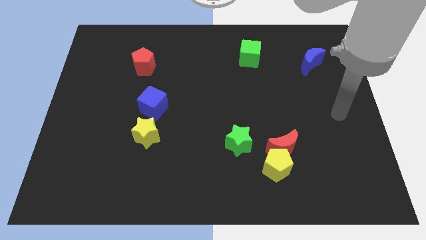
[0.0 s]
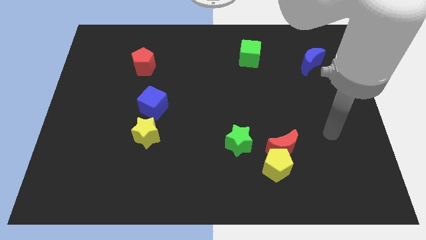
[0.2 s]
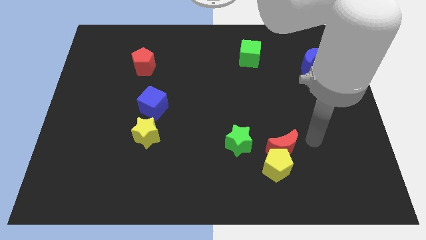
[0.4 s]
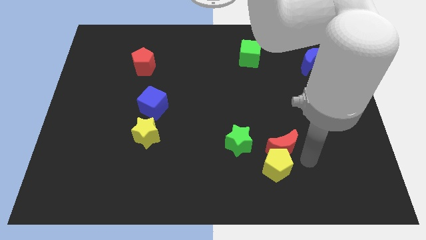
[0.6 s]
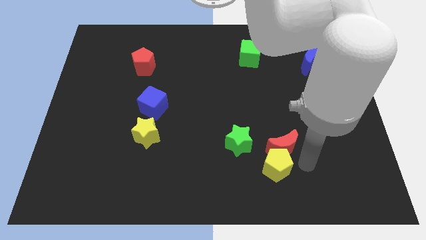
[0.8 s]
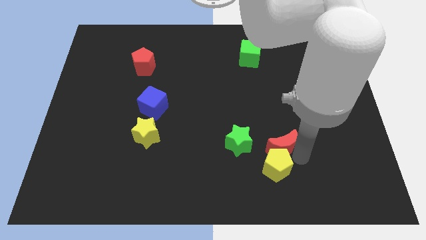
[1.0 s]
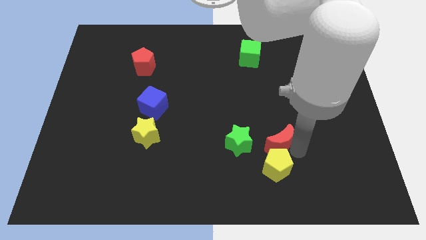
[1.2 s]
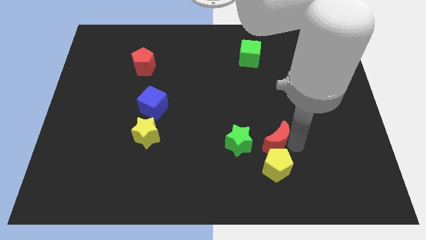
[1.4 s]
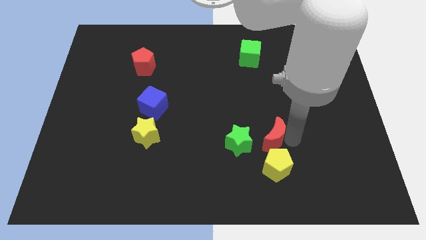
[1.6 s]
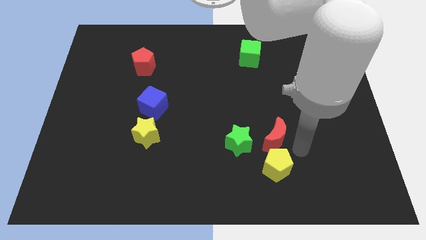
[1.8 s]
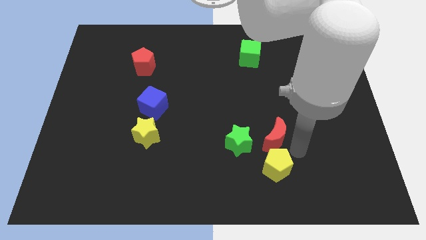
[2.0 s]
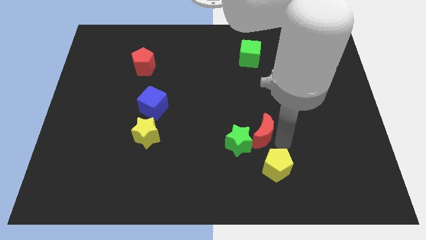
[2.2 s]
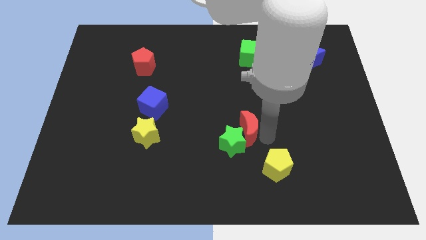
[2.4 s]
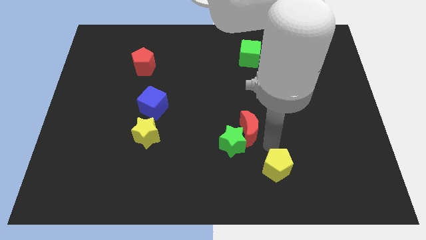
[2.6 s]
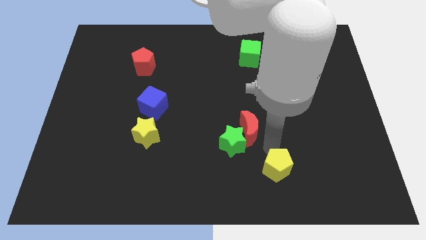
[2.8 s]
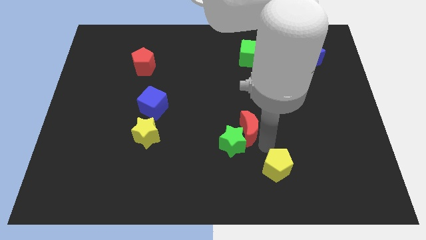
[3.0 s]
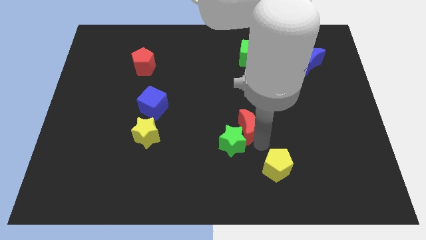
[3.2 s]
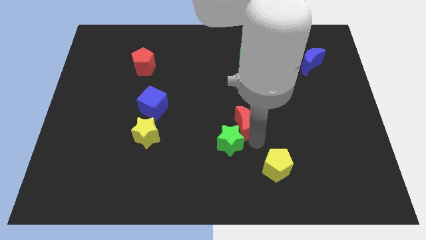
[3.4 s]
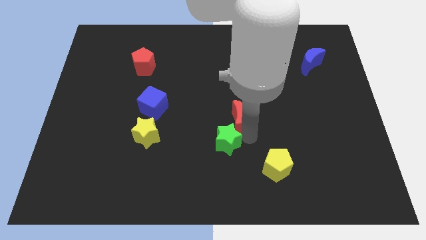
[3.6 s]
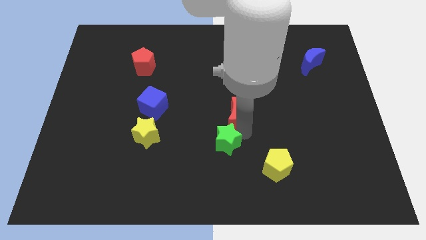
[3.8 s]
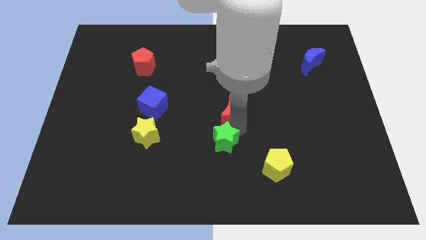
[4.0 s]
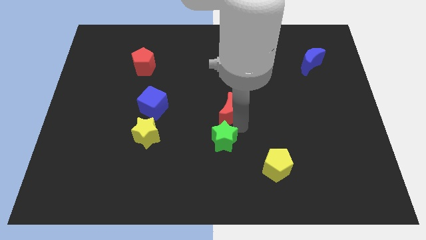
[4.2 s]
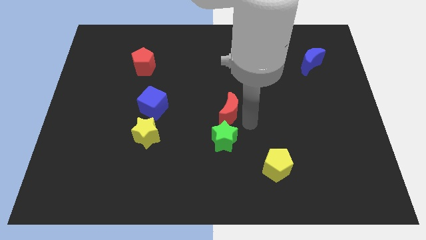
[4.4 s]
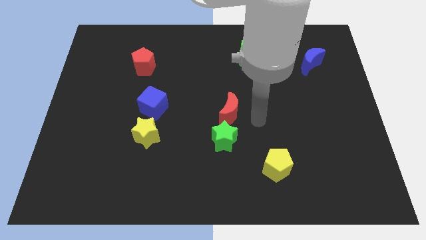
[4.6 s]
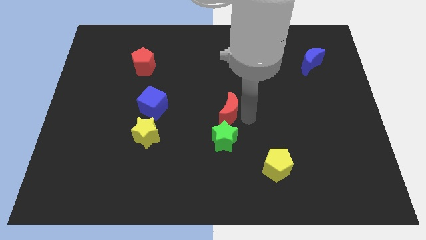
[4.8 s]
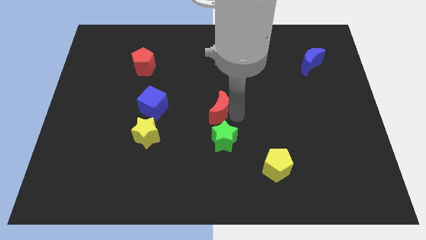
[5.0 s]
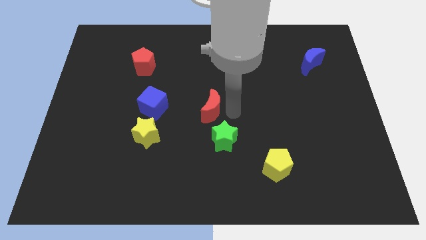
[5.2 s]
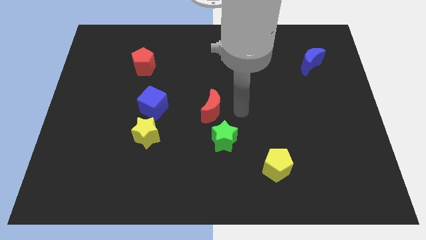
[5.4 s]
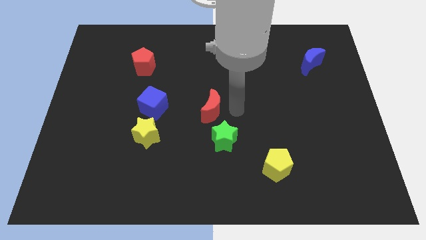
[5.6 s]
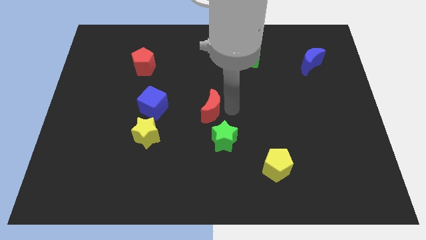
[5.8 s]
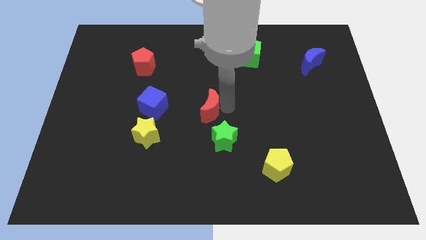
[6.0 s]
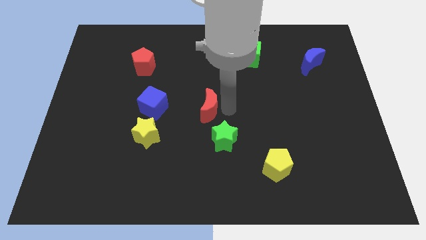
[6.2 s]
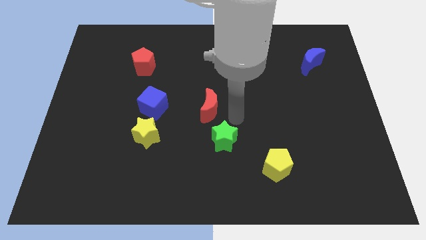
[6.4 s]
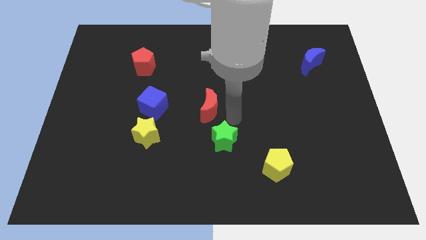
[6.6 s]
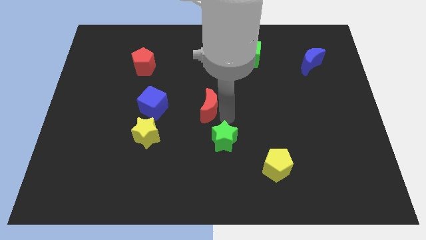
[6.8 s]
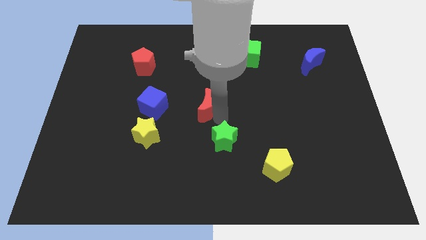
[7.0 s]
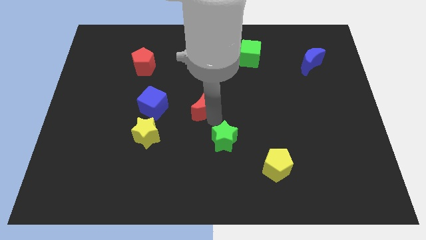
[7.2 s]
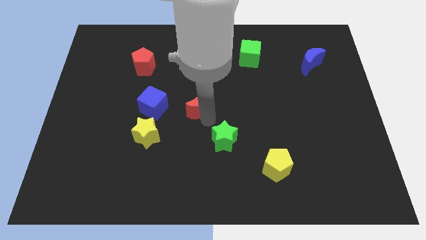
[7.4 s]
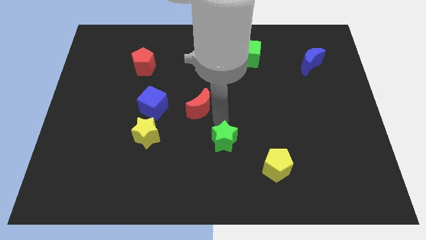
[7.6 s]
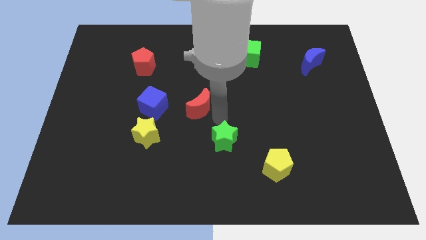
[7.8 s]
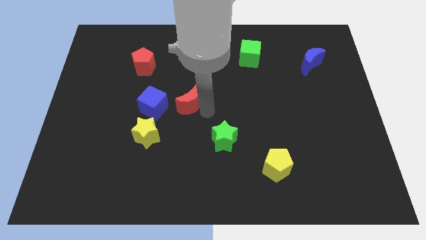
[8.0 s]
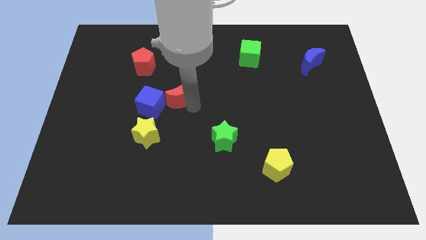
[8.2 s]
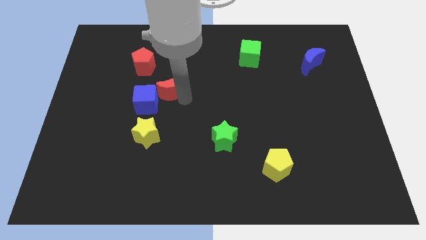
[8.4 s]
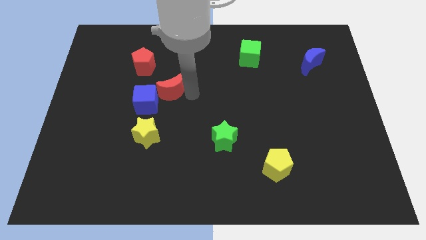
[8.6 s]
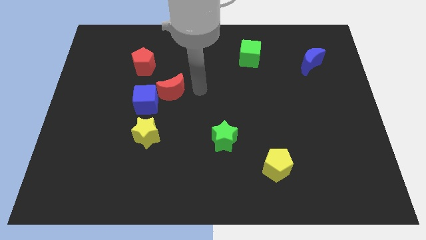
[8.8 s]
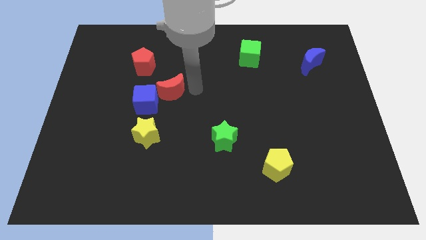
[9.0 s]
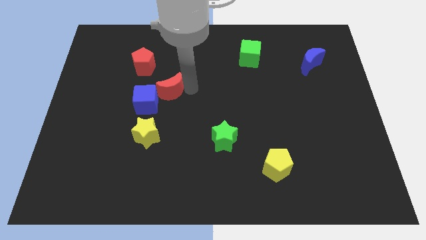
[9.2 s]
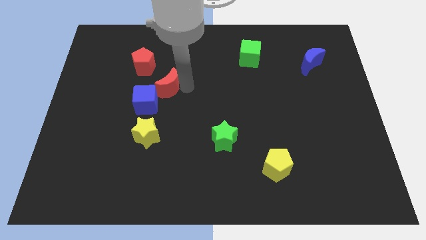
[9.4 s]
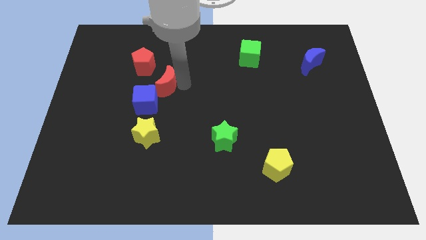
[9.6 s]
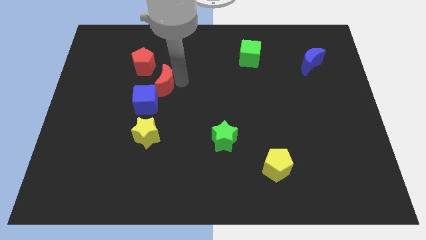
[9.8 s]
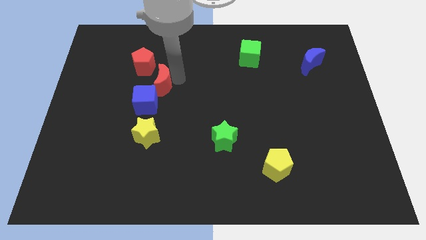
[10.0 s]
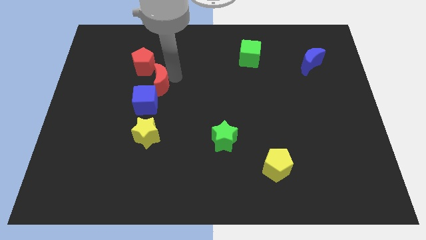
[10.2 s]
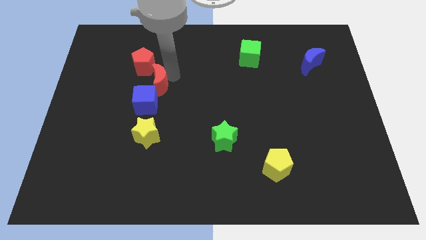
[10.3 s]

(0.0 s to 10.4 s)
push the red moon to the bottom of the red pentagon

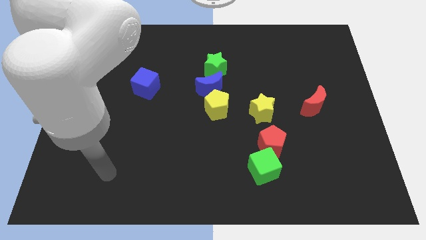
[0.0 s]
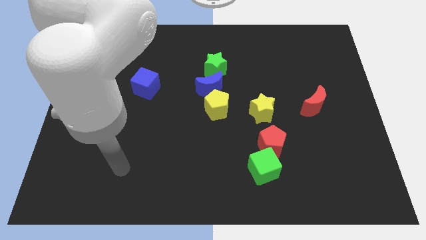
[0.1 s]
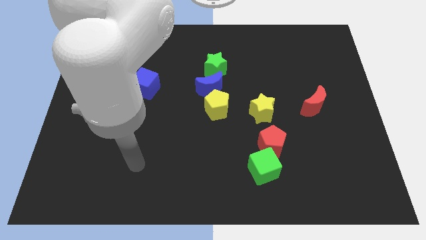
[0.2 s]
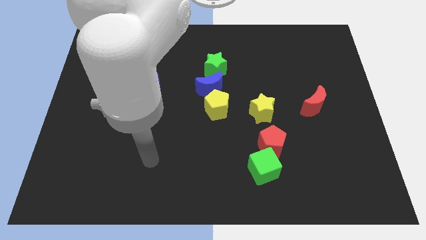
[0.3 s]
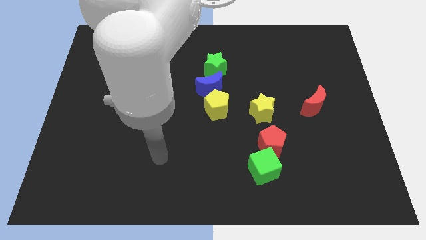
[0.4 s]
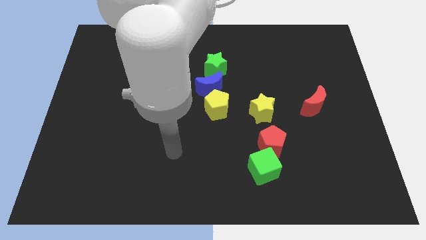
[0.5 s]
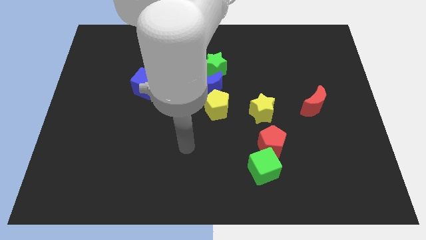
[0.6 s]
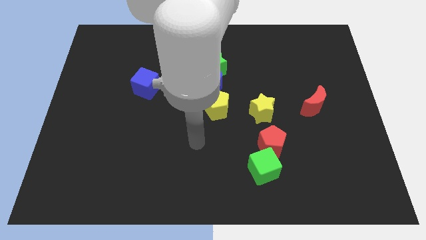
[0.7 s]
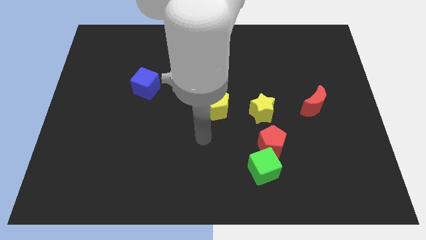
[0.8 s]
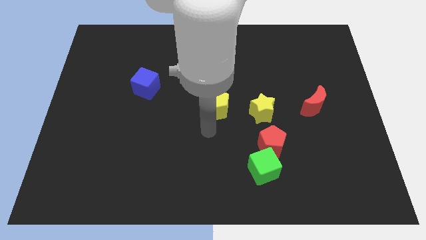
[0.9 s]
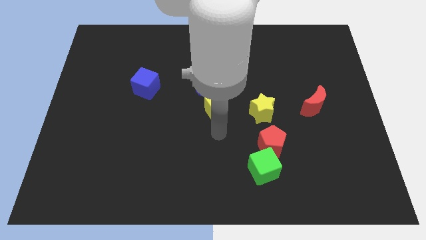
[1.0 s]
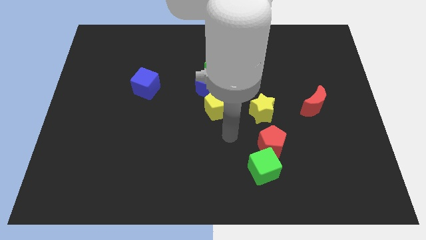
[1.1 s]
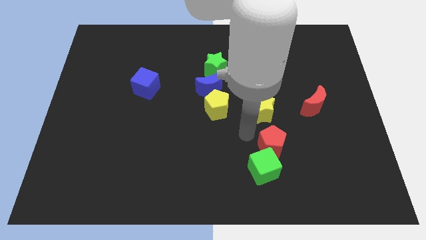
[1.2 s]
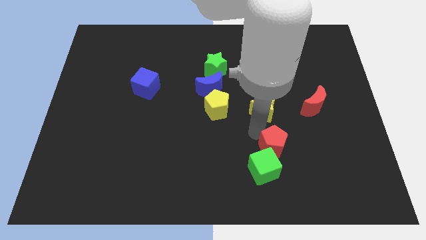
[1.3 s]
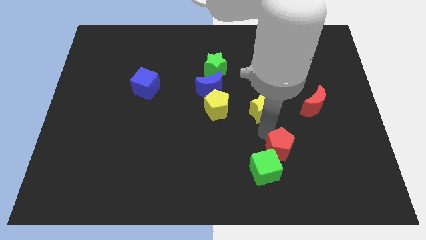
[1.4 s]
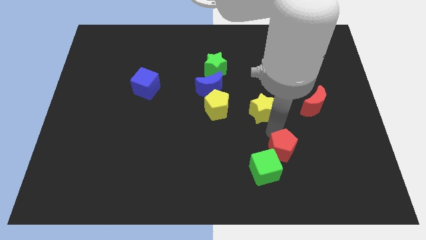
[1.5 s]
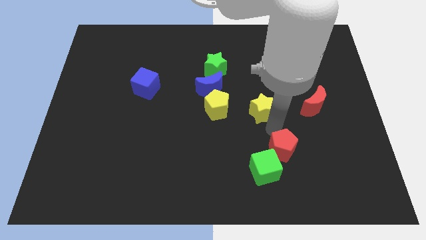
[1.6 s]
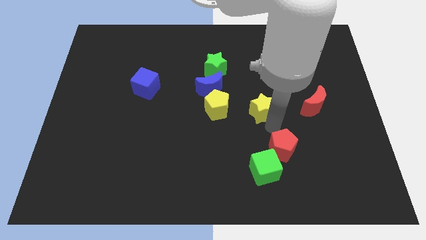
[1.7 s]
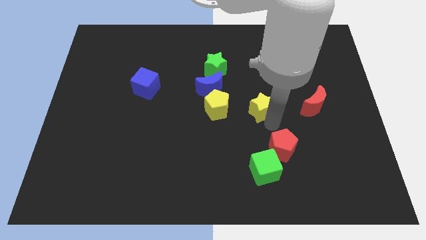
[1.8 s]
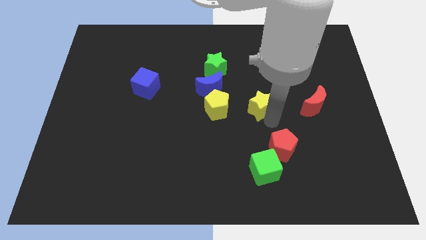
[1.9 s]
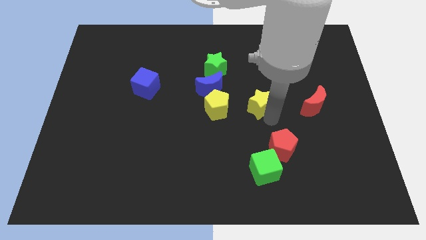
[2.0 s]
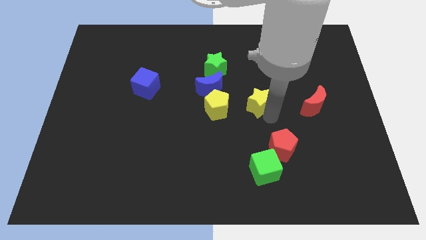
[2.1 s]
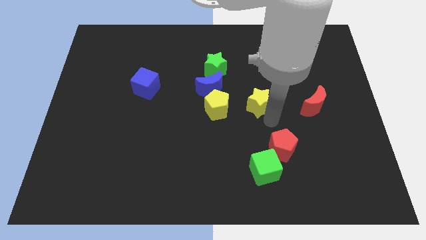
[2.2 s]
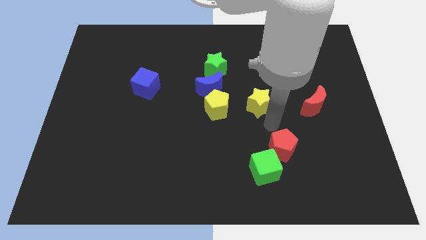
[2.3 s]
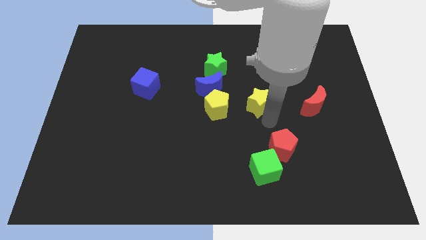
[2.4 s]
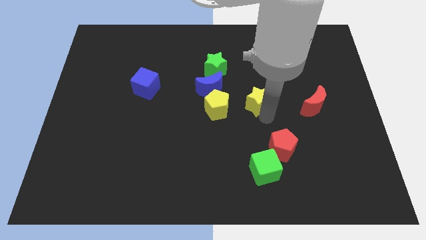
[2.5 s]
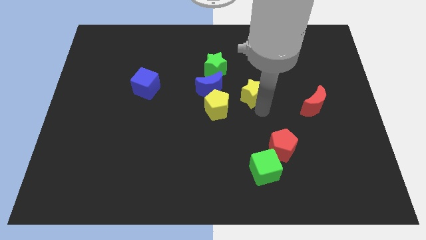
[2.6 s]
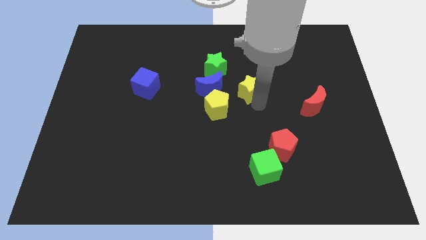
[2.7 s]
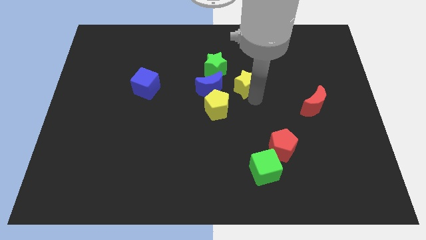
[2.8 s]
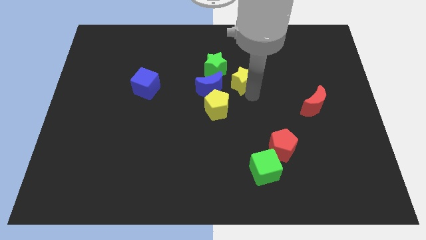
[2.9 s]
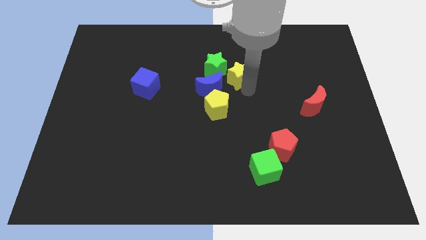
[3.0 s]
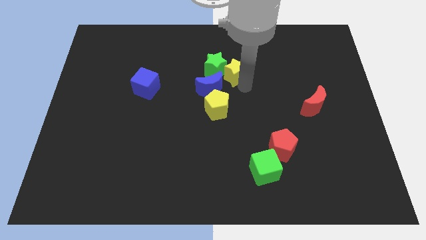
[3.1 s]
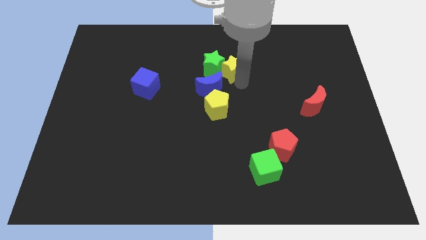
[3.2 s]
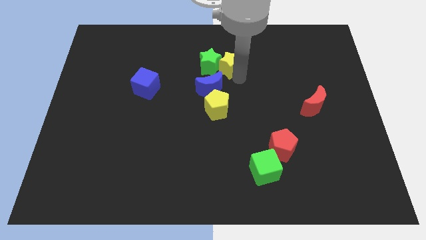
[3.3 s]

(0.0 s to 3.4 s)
move the yellow star to the top of the blue moon
